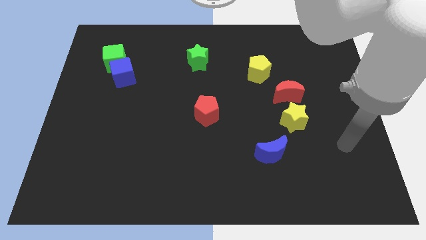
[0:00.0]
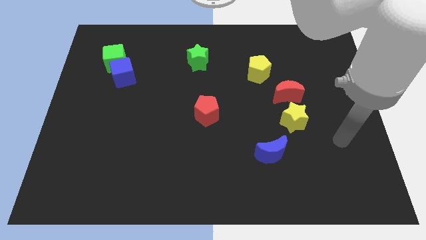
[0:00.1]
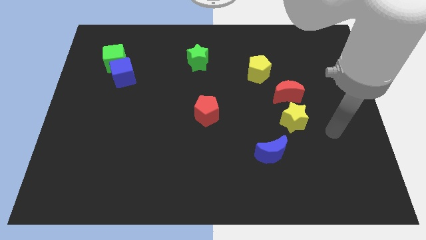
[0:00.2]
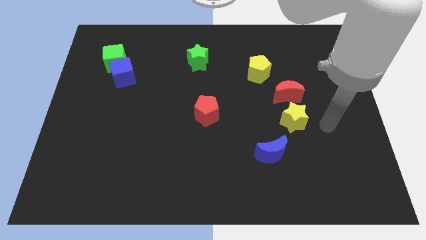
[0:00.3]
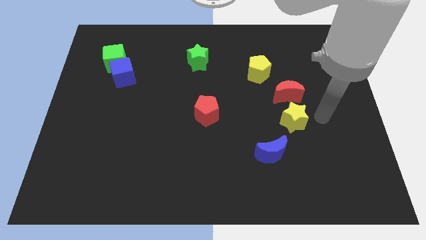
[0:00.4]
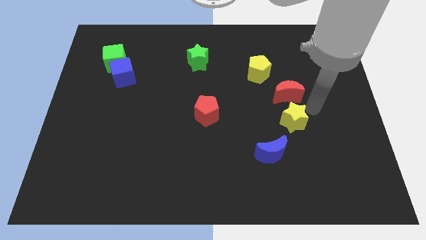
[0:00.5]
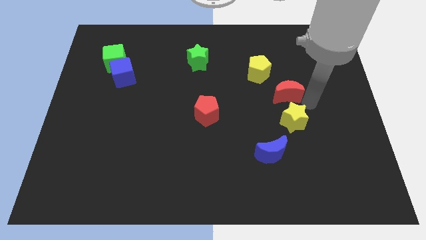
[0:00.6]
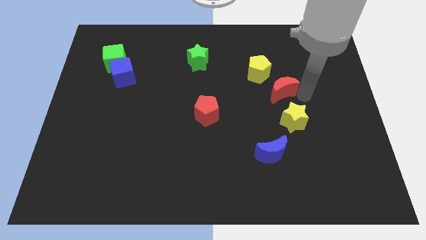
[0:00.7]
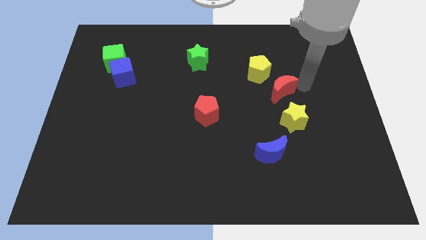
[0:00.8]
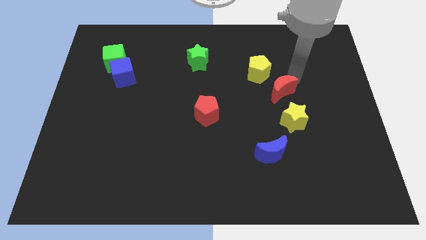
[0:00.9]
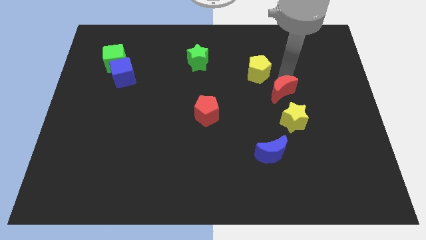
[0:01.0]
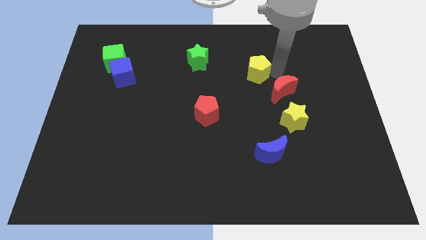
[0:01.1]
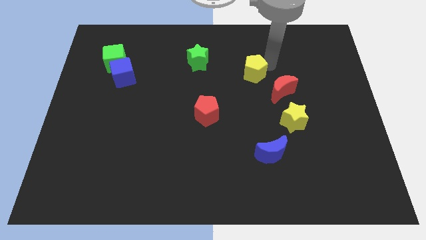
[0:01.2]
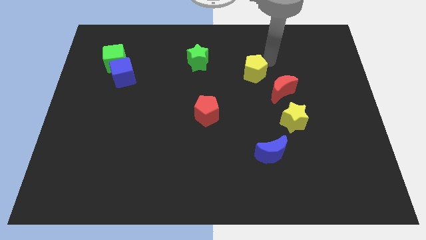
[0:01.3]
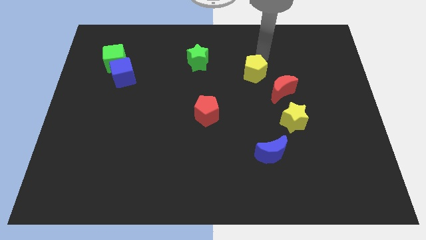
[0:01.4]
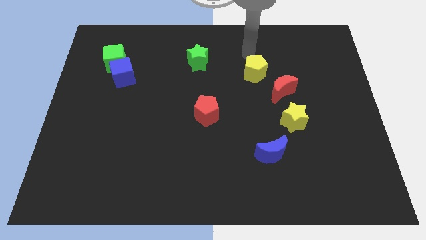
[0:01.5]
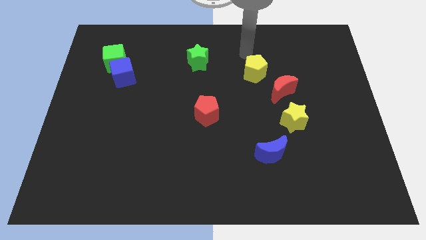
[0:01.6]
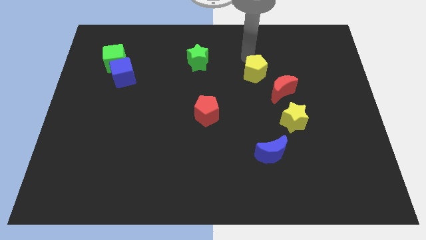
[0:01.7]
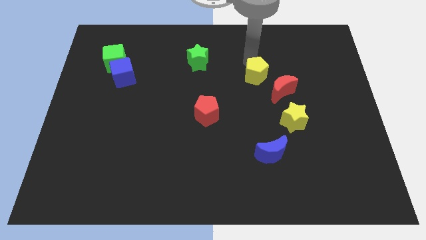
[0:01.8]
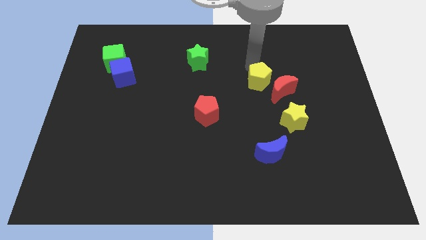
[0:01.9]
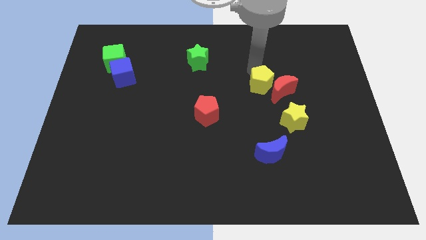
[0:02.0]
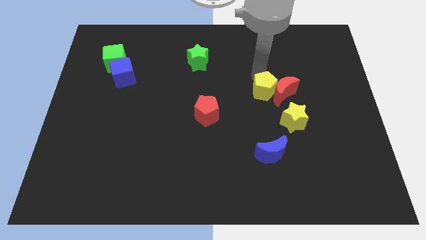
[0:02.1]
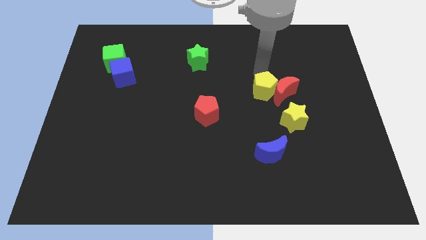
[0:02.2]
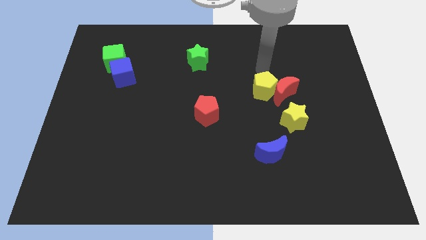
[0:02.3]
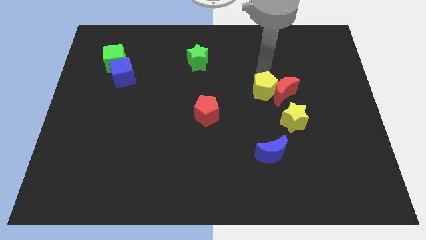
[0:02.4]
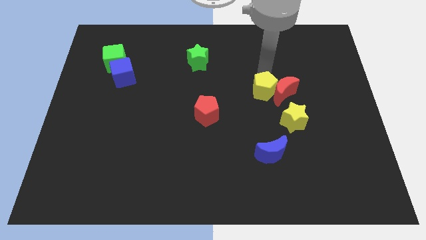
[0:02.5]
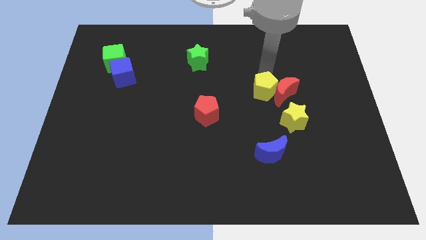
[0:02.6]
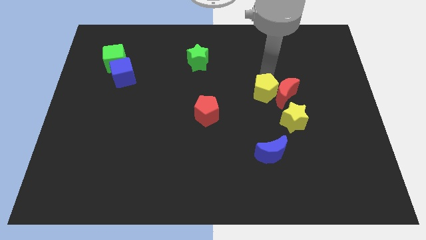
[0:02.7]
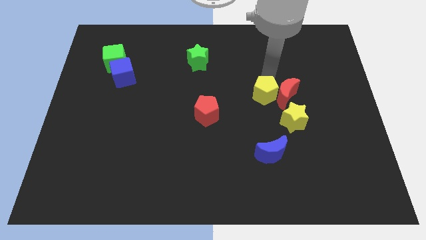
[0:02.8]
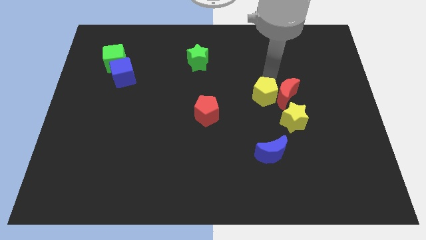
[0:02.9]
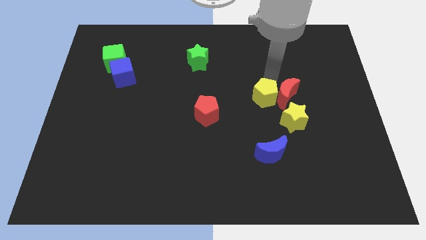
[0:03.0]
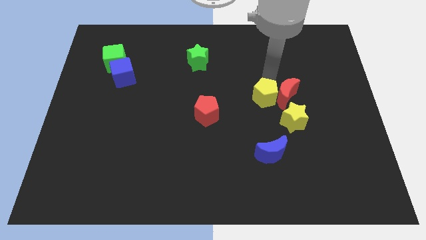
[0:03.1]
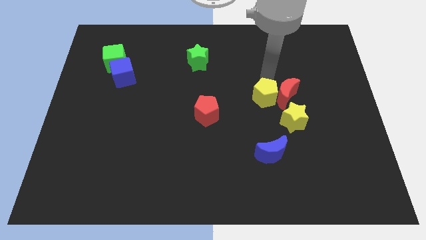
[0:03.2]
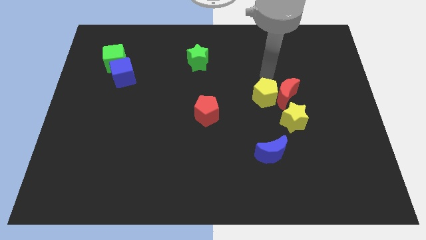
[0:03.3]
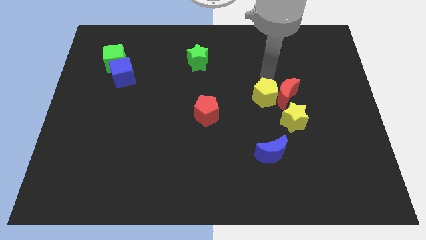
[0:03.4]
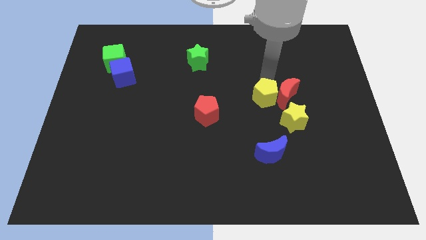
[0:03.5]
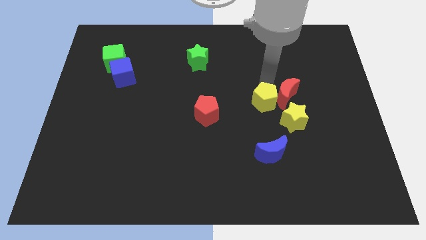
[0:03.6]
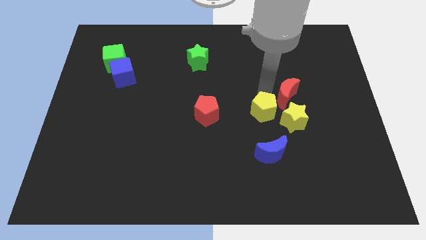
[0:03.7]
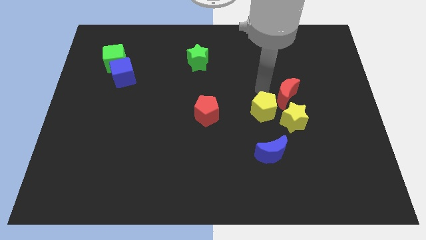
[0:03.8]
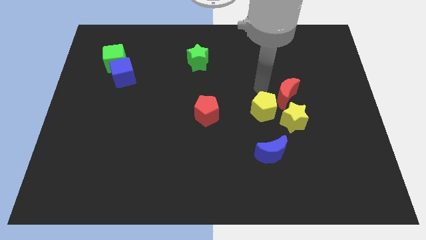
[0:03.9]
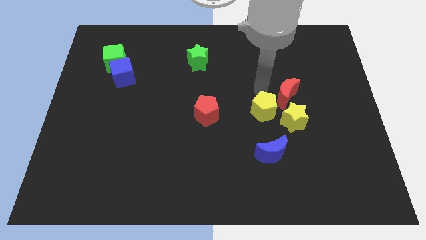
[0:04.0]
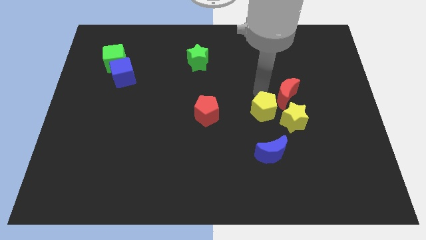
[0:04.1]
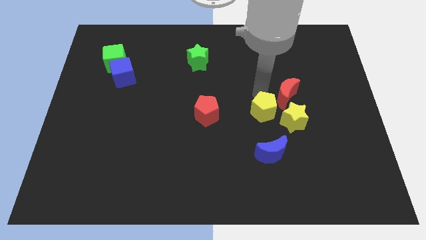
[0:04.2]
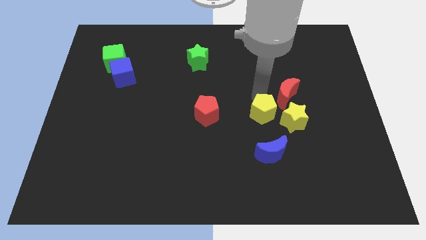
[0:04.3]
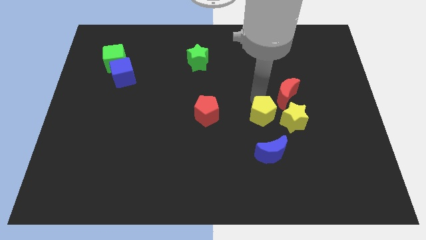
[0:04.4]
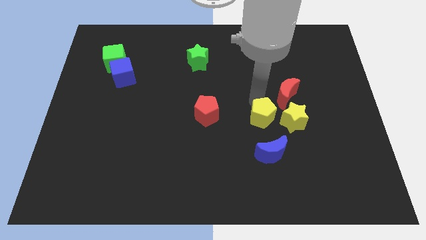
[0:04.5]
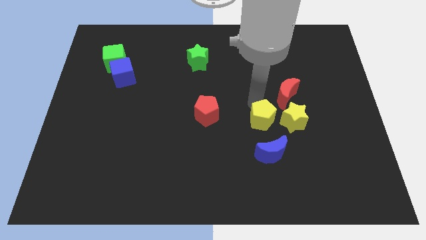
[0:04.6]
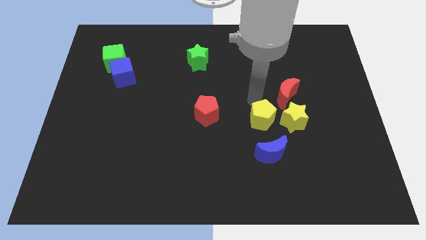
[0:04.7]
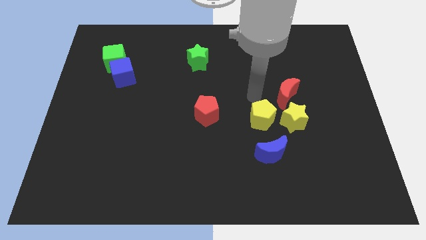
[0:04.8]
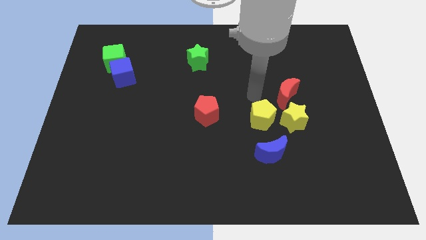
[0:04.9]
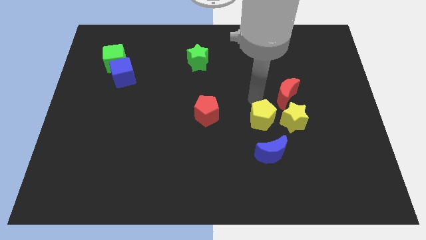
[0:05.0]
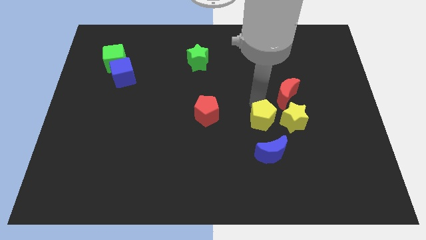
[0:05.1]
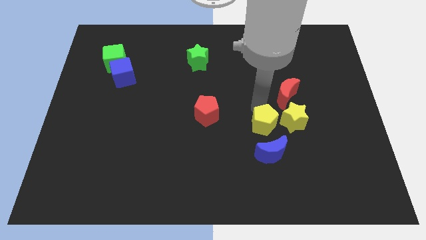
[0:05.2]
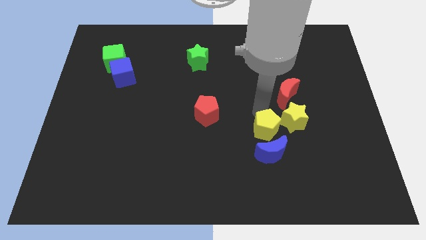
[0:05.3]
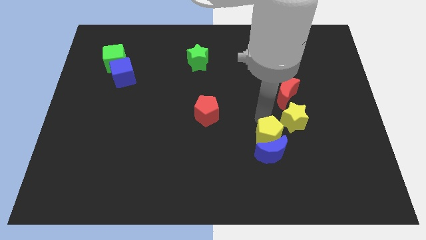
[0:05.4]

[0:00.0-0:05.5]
slide the yellow pentagon towards the blue moon

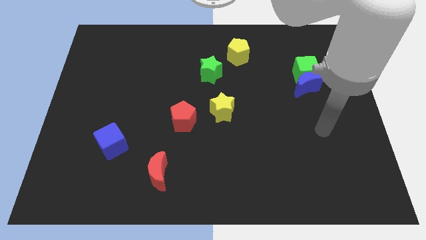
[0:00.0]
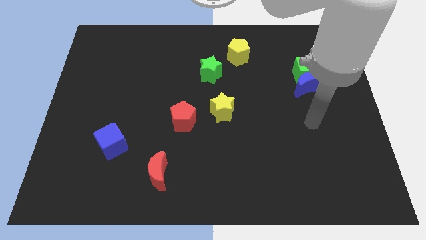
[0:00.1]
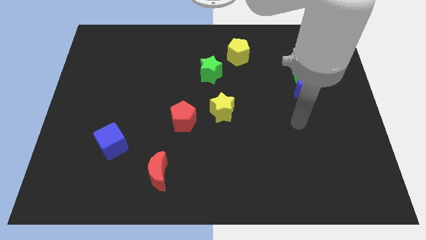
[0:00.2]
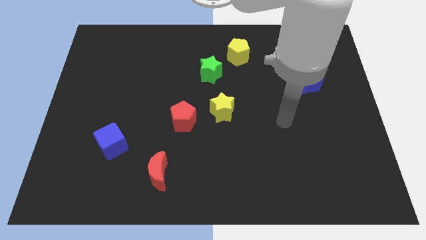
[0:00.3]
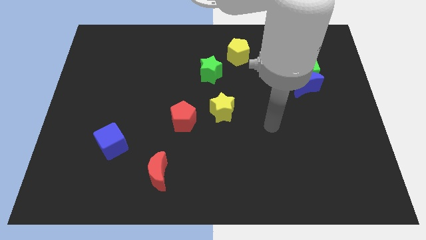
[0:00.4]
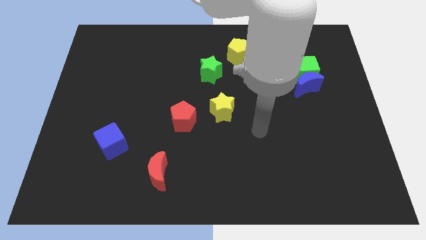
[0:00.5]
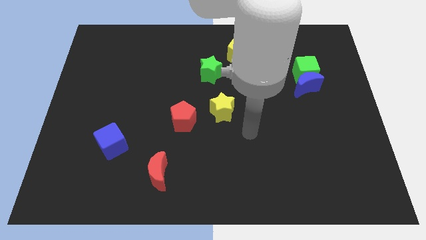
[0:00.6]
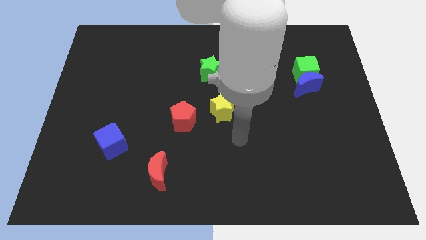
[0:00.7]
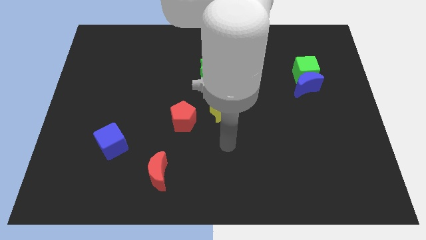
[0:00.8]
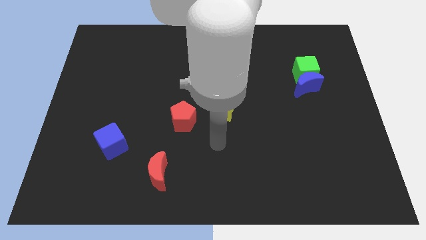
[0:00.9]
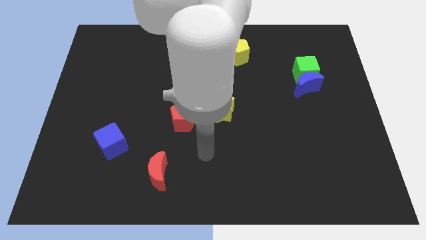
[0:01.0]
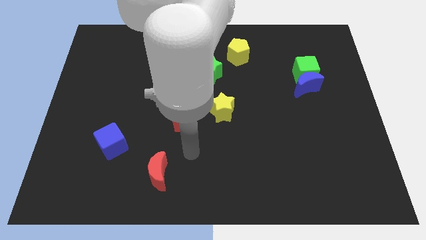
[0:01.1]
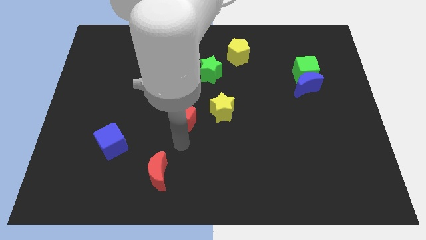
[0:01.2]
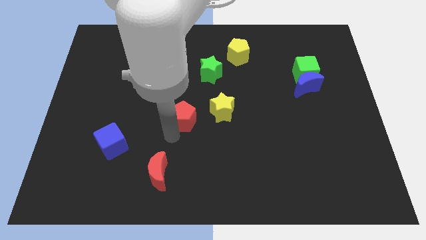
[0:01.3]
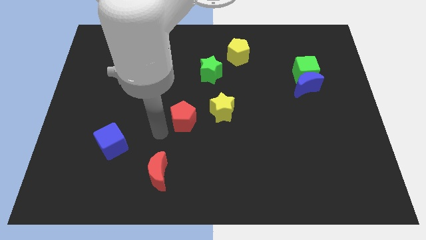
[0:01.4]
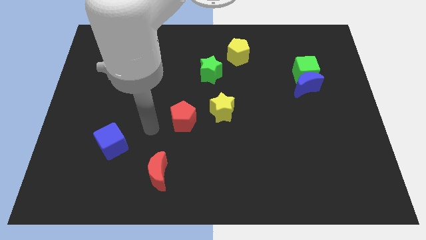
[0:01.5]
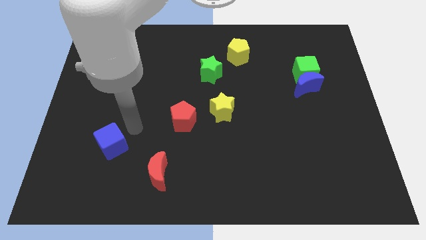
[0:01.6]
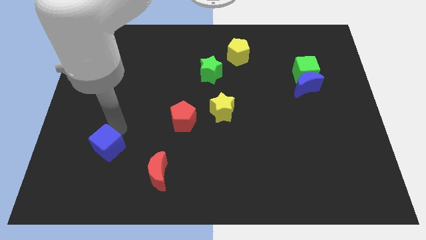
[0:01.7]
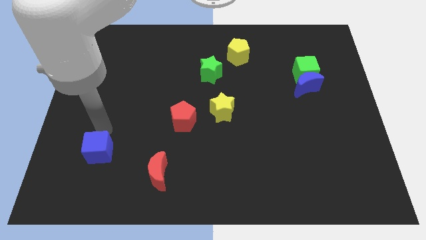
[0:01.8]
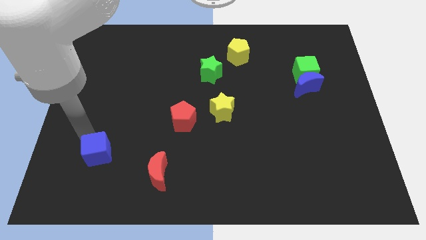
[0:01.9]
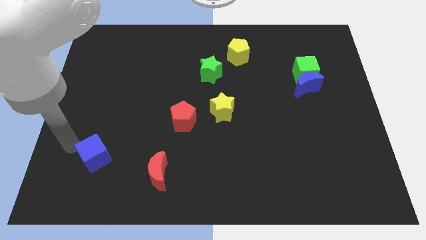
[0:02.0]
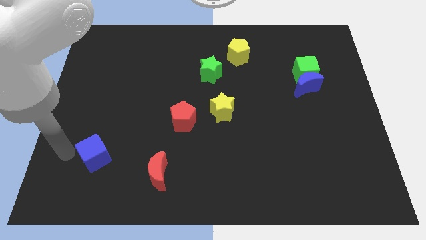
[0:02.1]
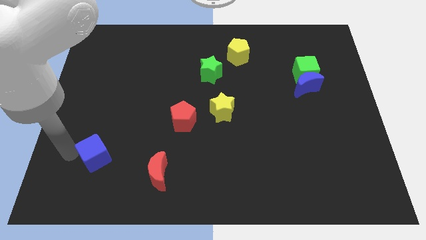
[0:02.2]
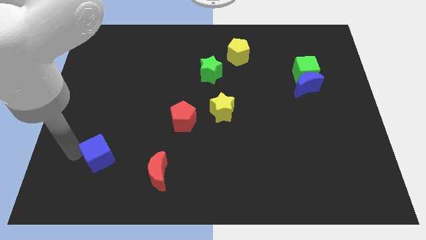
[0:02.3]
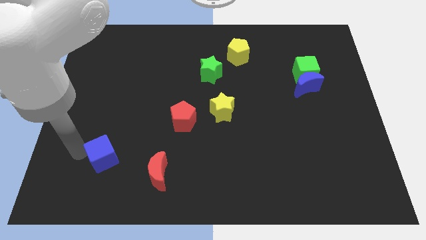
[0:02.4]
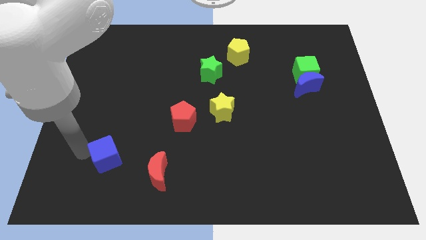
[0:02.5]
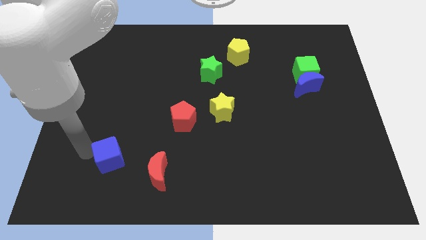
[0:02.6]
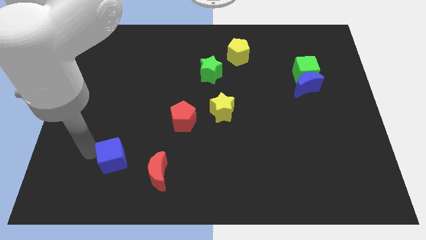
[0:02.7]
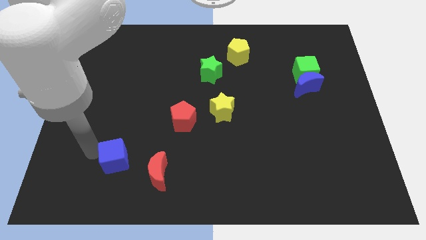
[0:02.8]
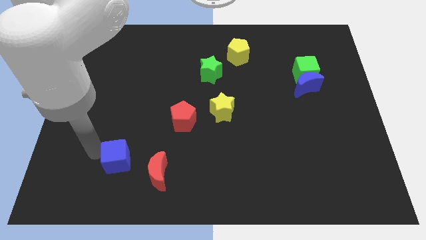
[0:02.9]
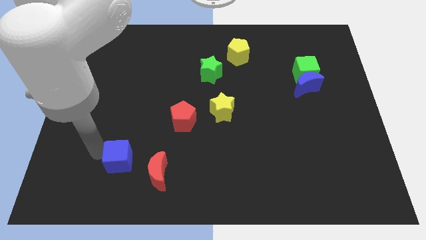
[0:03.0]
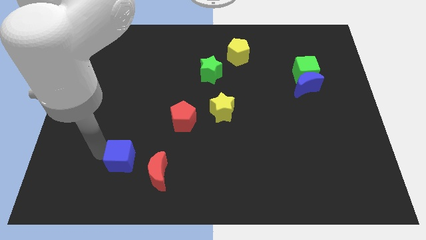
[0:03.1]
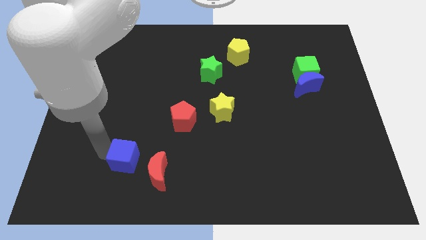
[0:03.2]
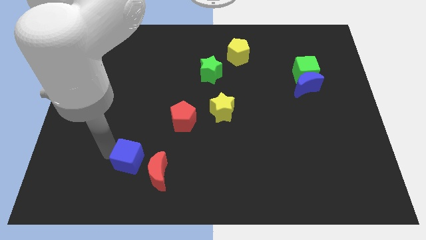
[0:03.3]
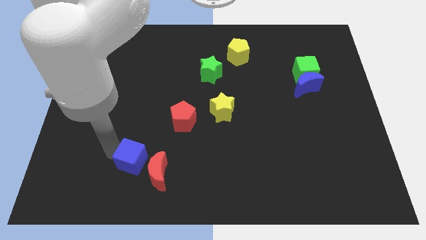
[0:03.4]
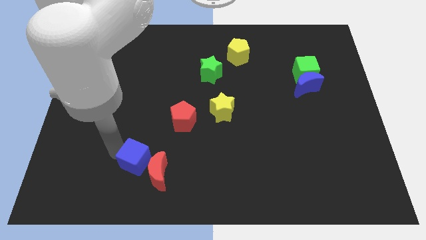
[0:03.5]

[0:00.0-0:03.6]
move the blue cube next to the red moon
